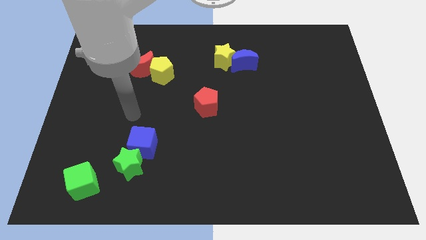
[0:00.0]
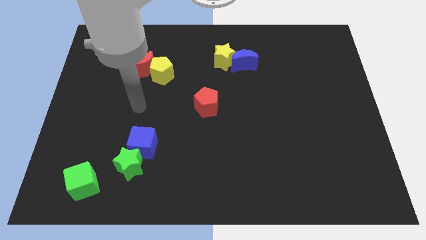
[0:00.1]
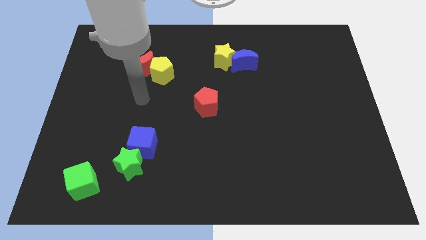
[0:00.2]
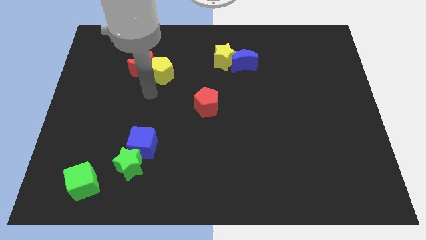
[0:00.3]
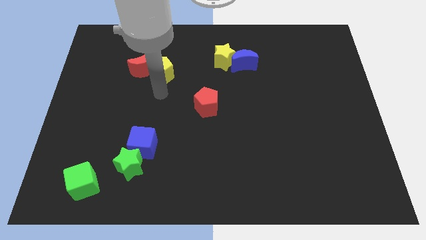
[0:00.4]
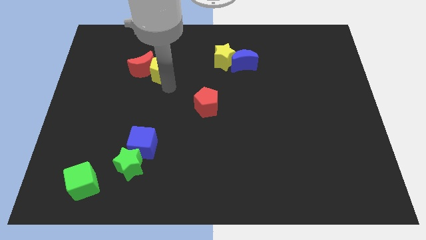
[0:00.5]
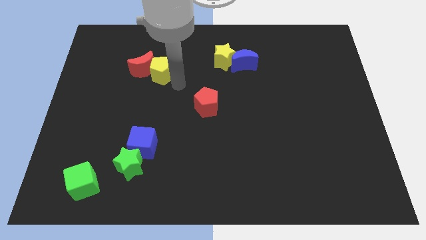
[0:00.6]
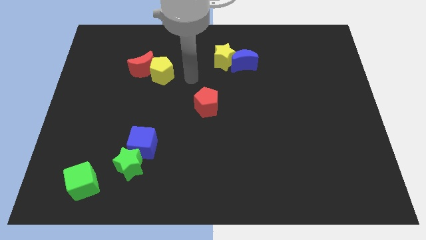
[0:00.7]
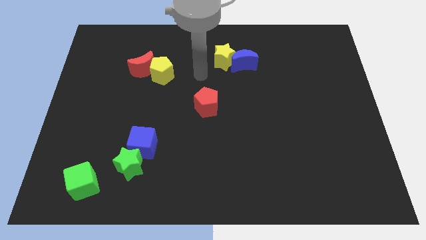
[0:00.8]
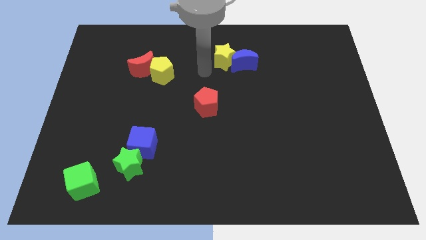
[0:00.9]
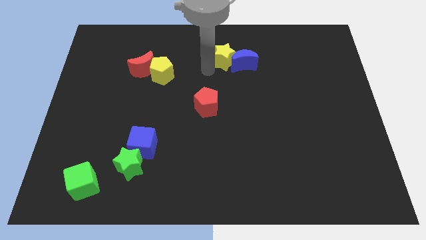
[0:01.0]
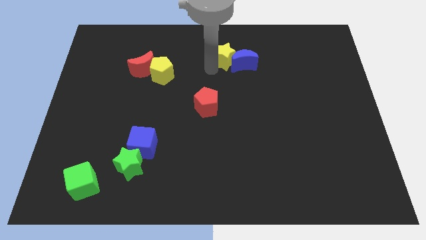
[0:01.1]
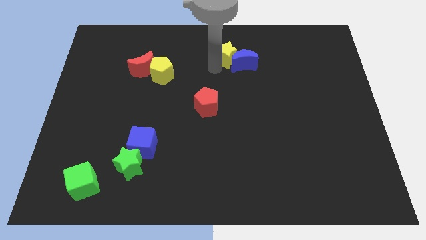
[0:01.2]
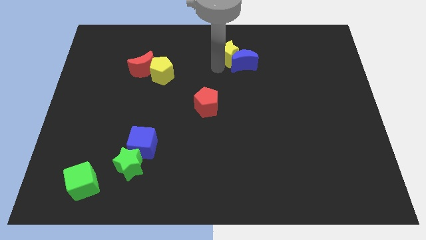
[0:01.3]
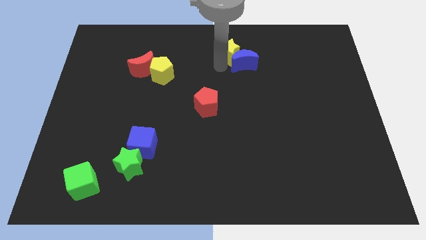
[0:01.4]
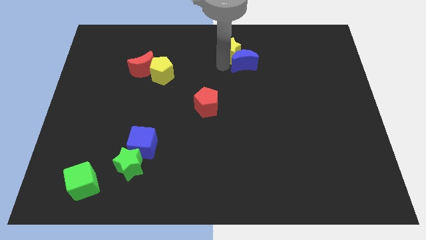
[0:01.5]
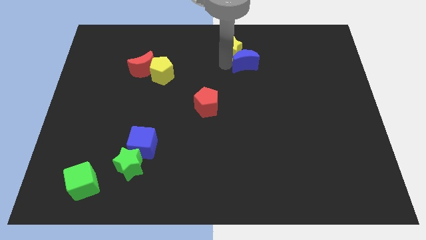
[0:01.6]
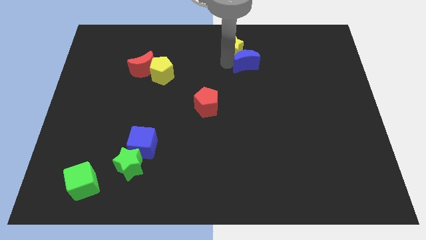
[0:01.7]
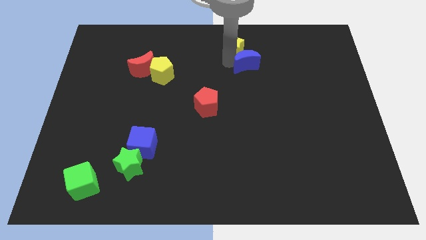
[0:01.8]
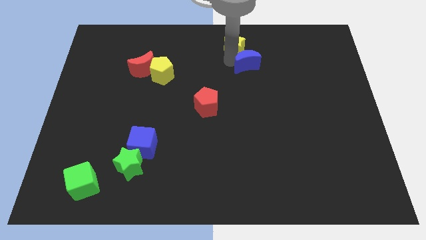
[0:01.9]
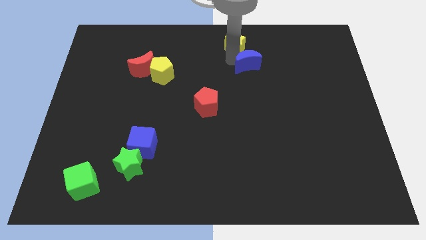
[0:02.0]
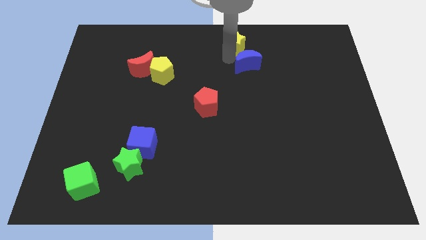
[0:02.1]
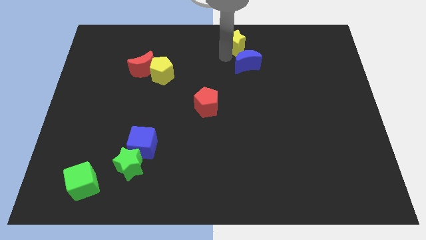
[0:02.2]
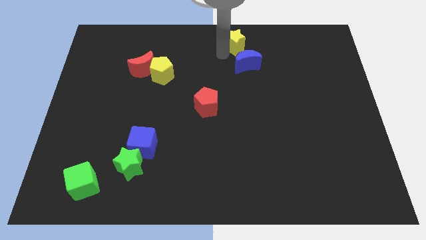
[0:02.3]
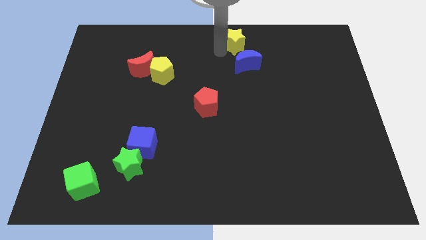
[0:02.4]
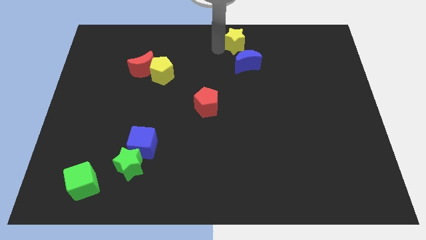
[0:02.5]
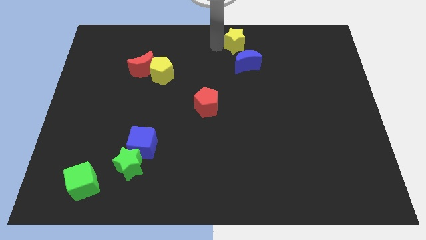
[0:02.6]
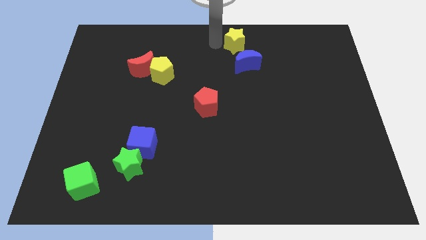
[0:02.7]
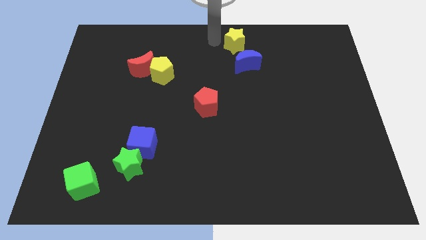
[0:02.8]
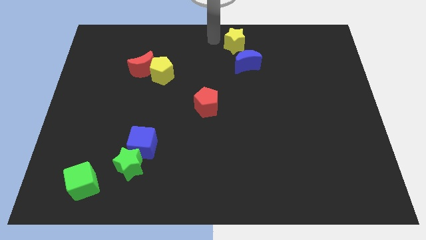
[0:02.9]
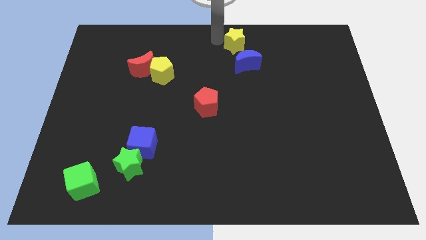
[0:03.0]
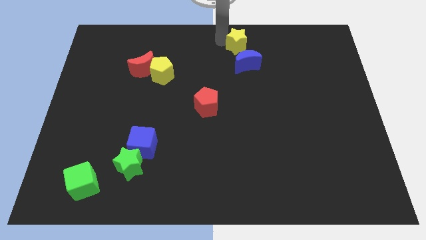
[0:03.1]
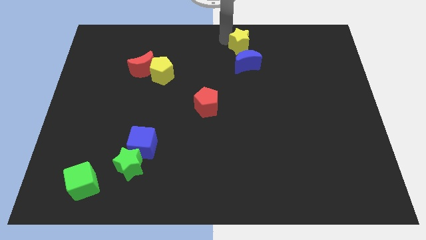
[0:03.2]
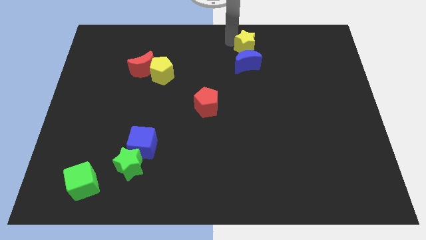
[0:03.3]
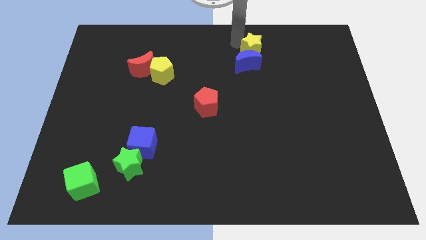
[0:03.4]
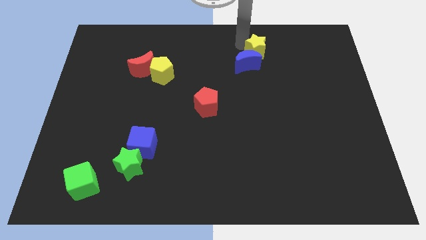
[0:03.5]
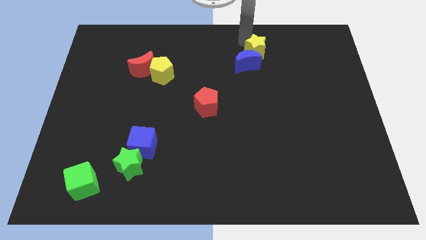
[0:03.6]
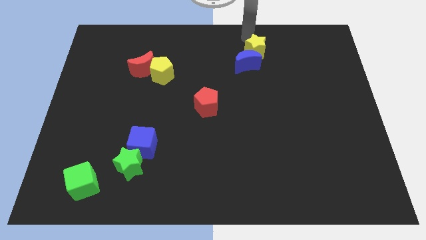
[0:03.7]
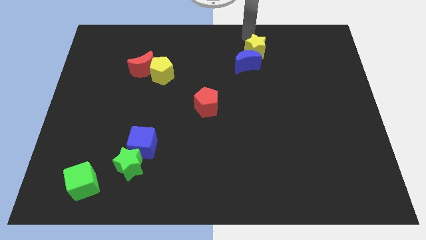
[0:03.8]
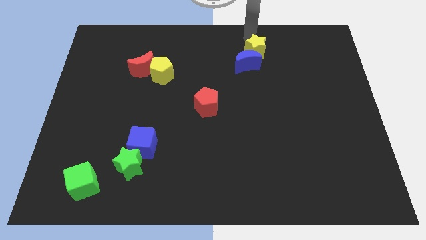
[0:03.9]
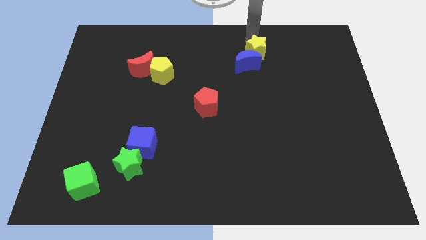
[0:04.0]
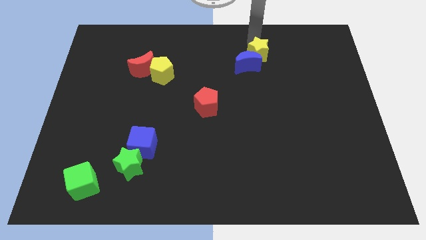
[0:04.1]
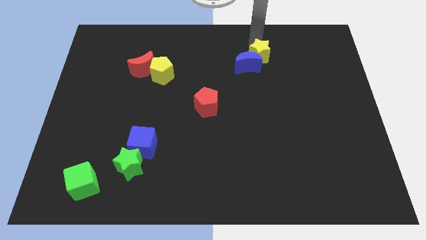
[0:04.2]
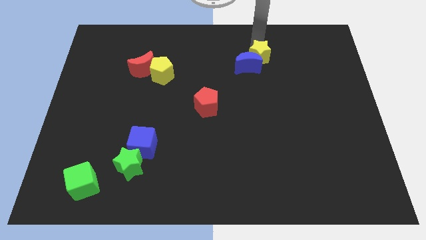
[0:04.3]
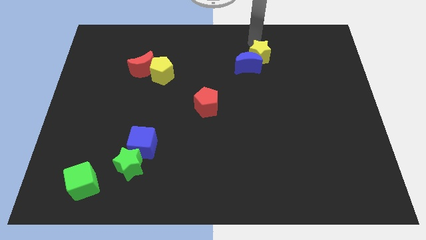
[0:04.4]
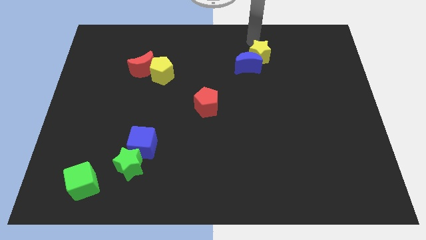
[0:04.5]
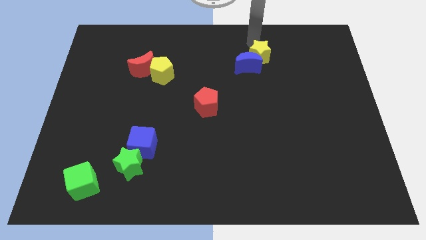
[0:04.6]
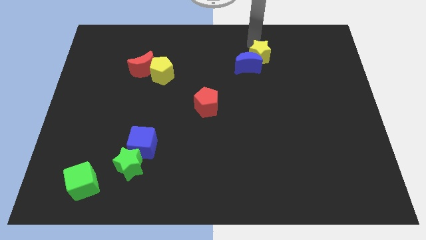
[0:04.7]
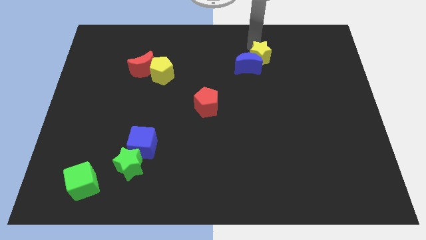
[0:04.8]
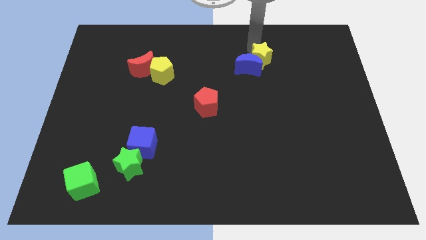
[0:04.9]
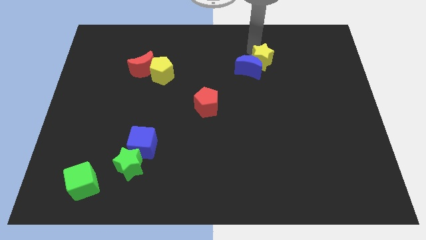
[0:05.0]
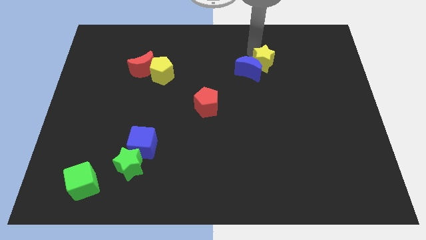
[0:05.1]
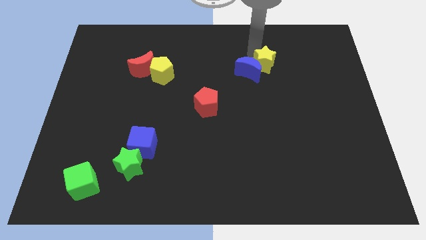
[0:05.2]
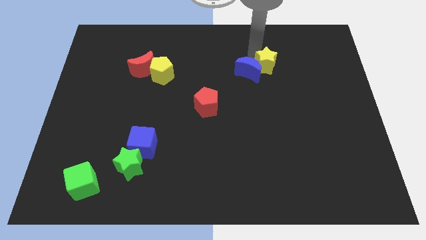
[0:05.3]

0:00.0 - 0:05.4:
slightly push the yellow star downwards and then right

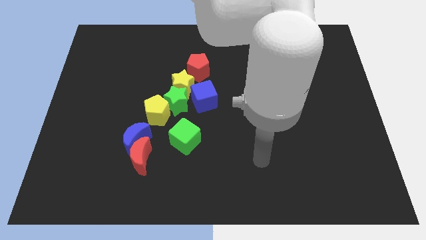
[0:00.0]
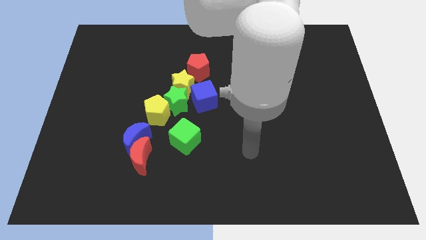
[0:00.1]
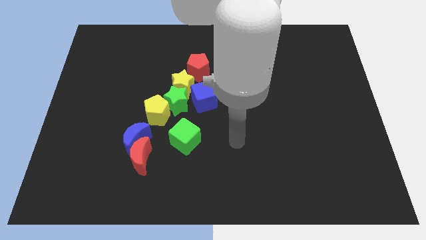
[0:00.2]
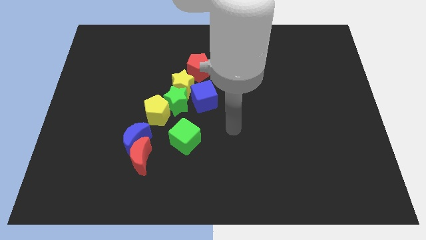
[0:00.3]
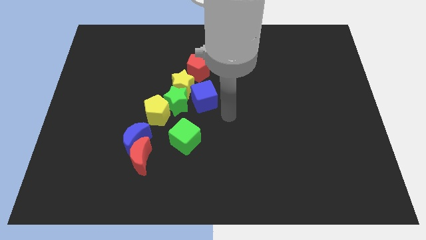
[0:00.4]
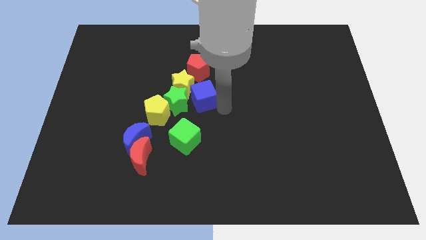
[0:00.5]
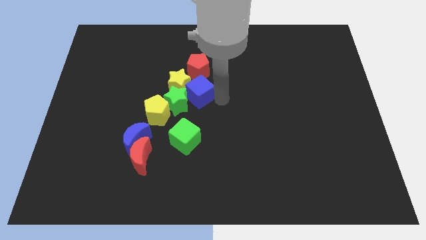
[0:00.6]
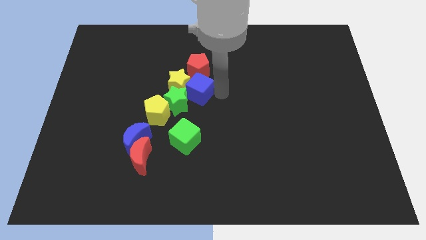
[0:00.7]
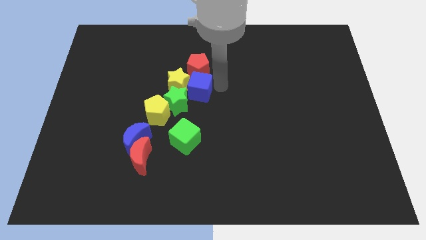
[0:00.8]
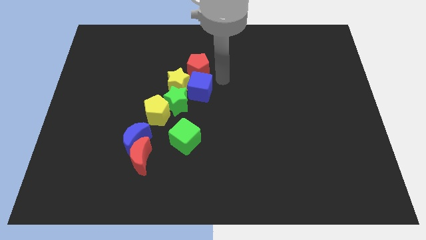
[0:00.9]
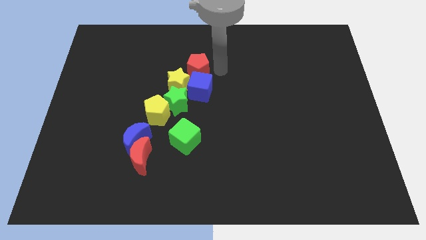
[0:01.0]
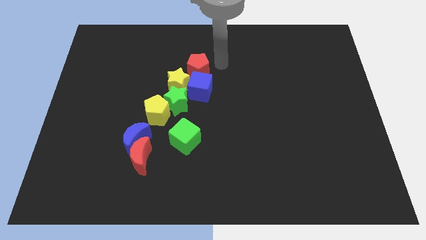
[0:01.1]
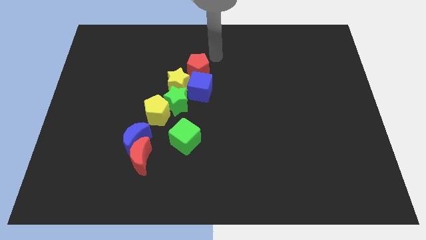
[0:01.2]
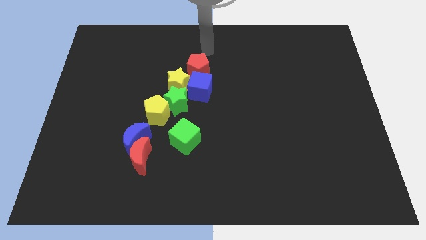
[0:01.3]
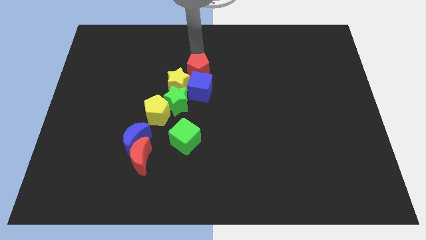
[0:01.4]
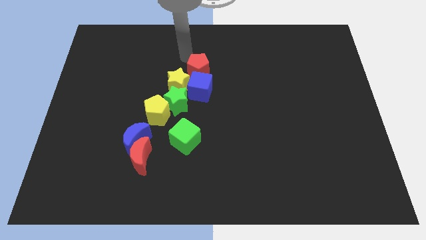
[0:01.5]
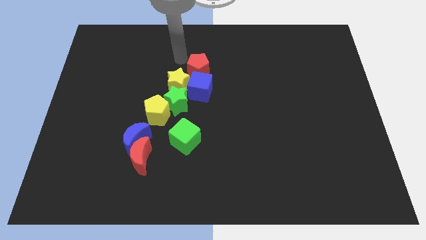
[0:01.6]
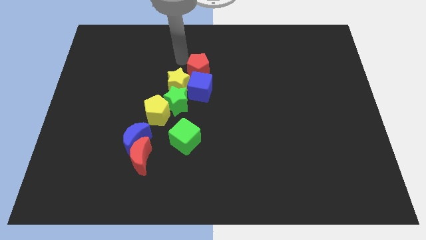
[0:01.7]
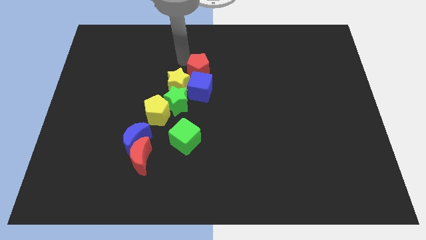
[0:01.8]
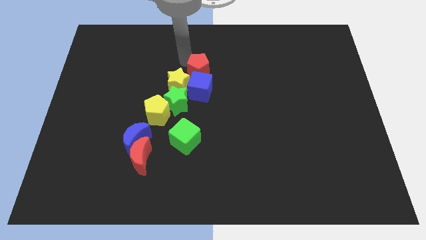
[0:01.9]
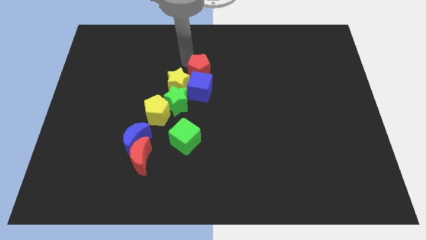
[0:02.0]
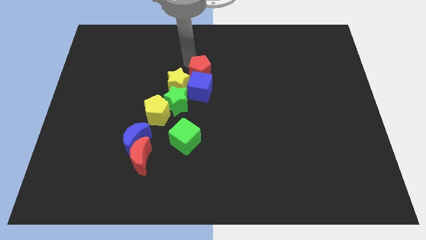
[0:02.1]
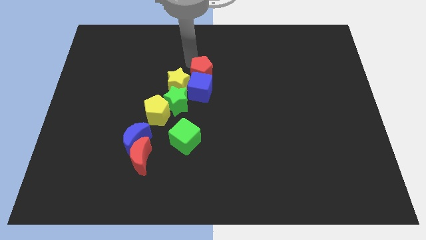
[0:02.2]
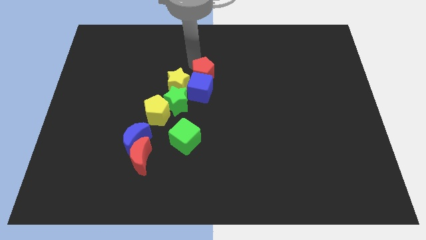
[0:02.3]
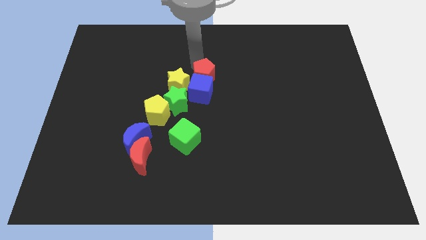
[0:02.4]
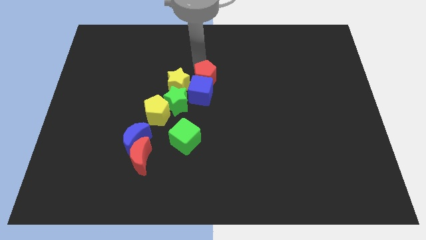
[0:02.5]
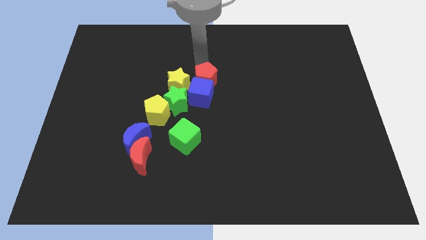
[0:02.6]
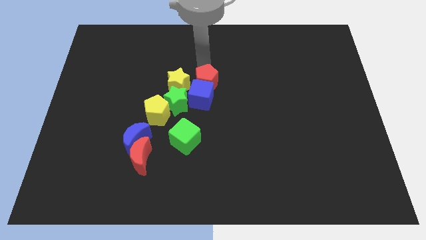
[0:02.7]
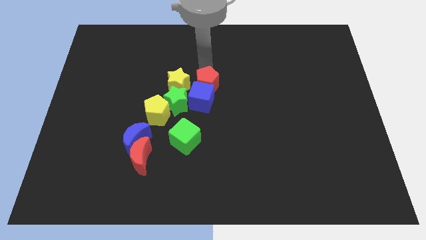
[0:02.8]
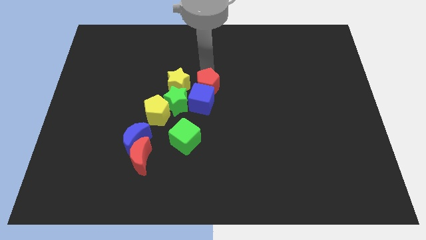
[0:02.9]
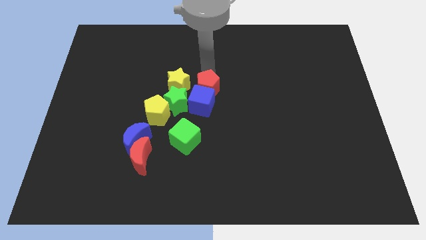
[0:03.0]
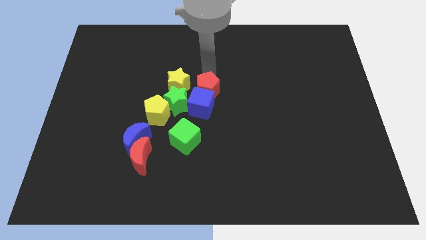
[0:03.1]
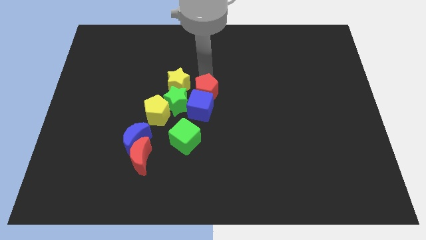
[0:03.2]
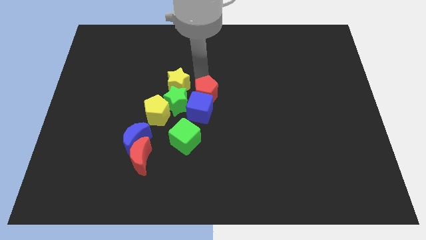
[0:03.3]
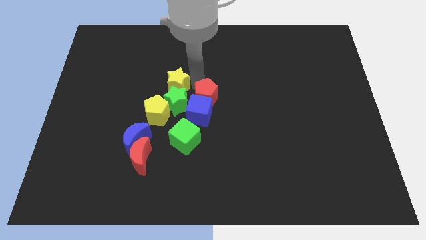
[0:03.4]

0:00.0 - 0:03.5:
move the red pentagon diagonally down and right somewhat
